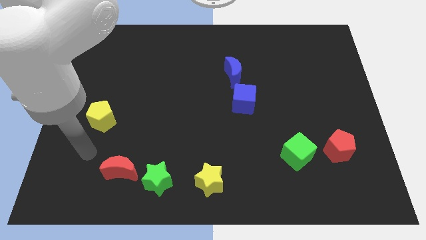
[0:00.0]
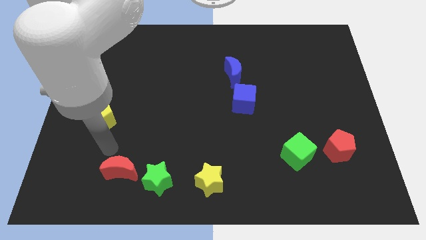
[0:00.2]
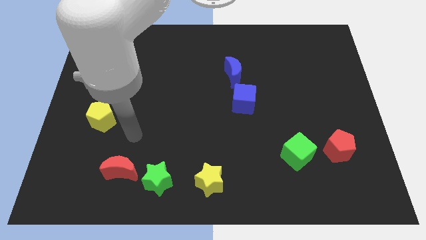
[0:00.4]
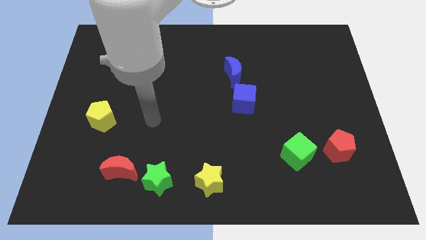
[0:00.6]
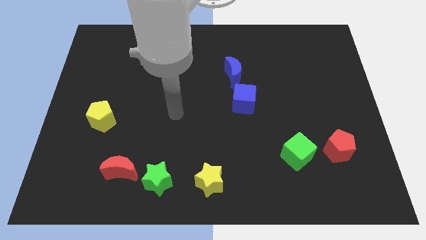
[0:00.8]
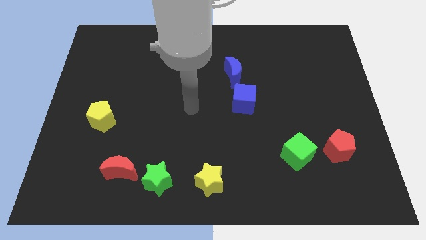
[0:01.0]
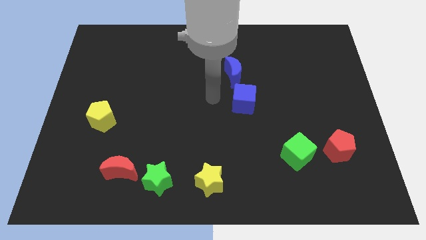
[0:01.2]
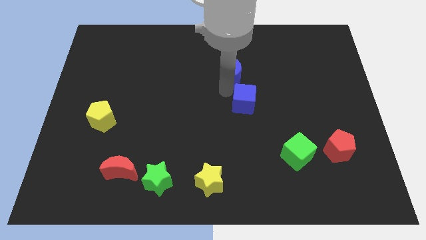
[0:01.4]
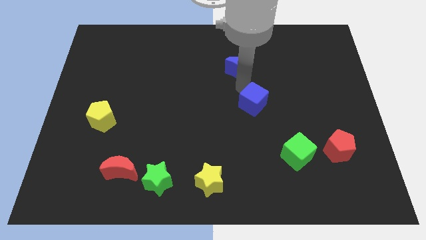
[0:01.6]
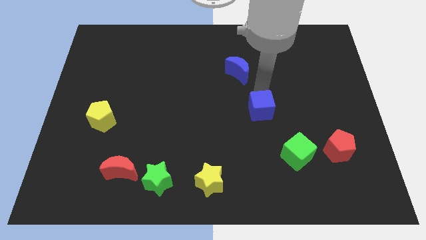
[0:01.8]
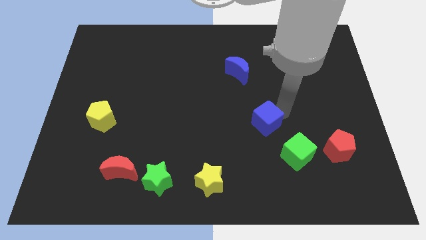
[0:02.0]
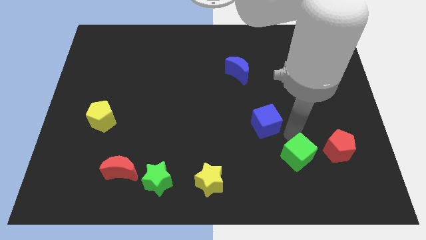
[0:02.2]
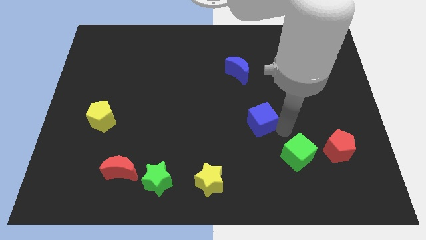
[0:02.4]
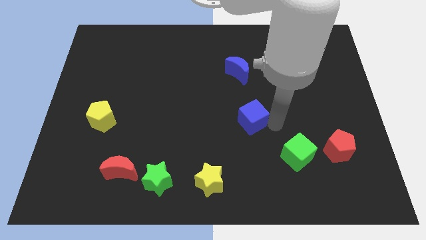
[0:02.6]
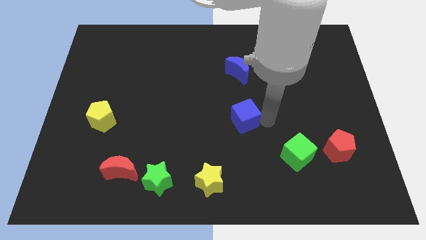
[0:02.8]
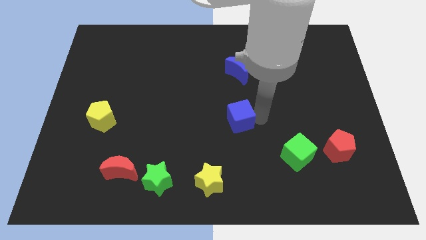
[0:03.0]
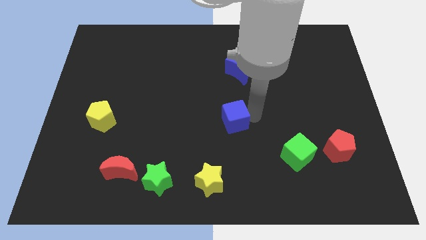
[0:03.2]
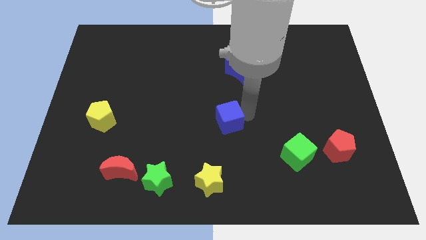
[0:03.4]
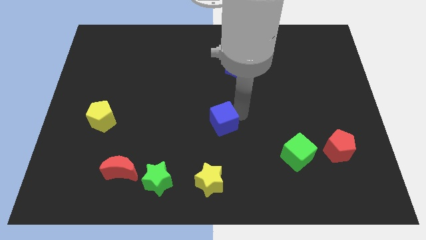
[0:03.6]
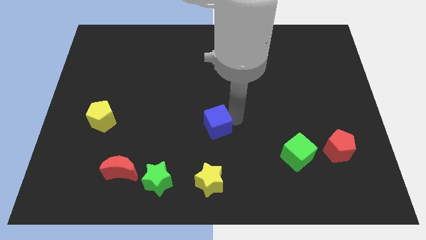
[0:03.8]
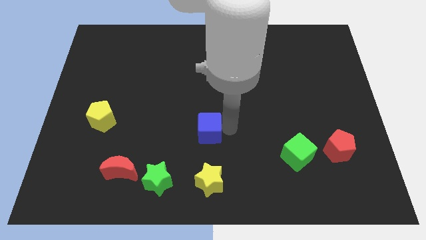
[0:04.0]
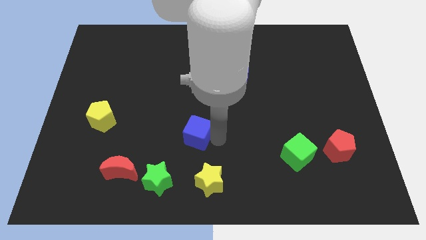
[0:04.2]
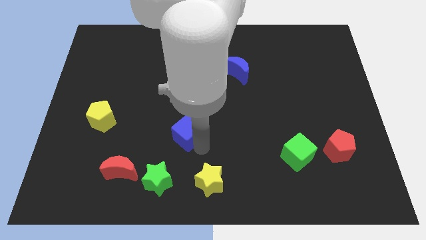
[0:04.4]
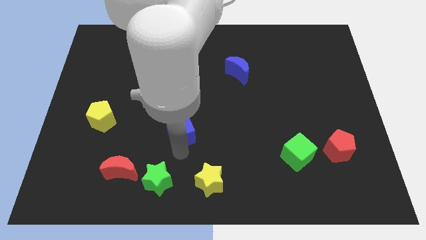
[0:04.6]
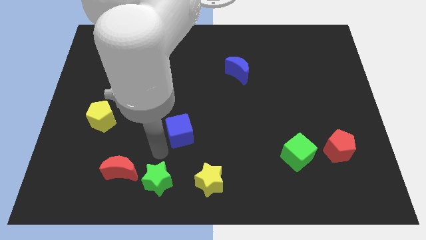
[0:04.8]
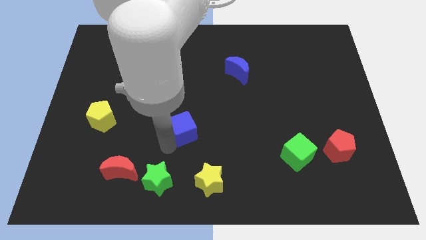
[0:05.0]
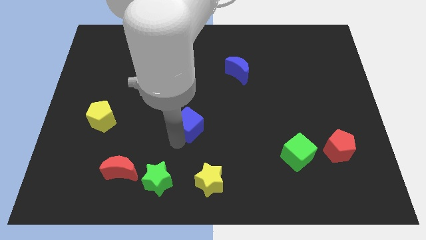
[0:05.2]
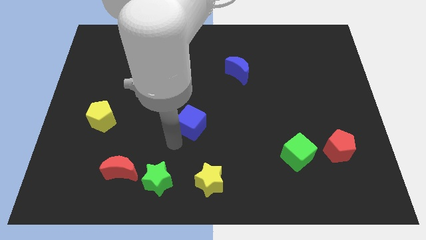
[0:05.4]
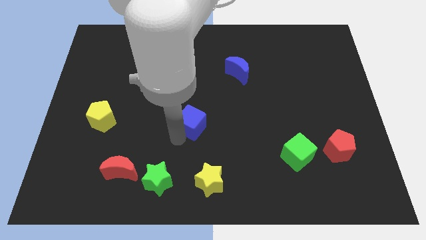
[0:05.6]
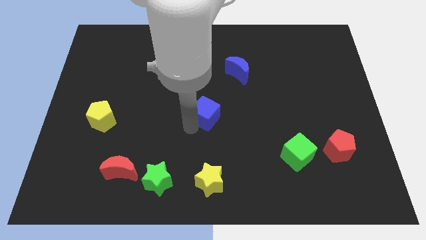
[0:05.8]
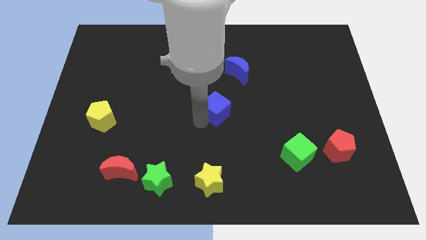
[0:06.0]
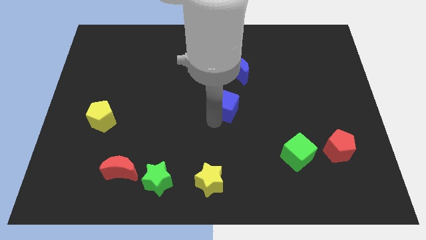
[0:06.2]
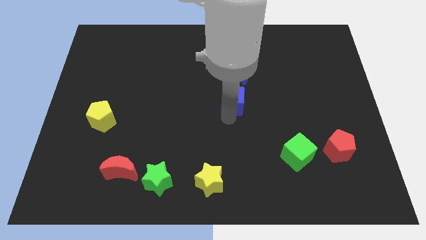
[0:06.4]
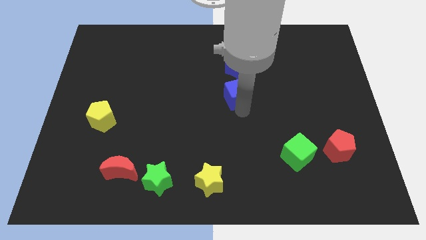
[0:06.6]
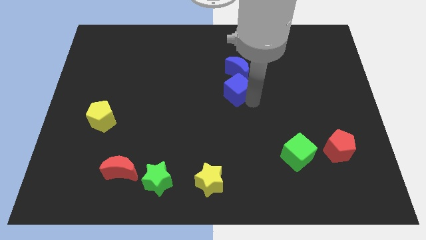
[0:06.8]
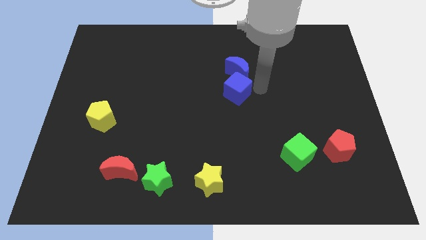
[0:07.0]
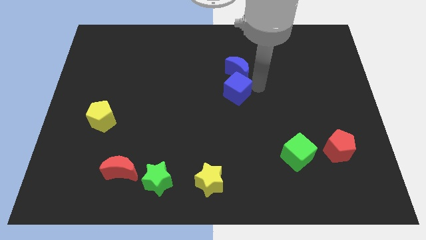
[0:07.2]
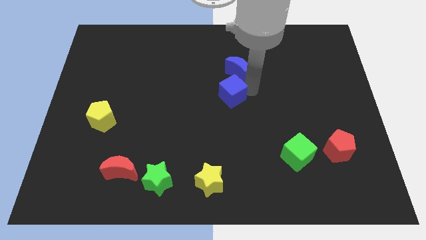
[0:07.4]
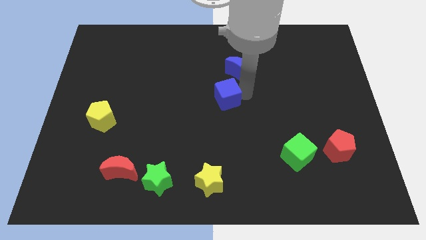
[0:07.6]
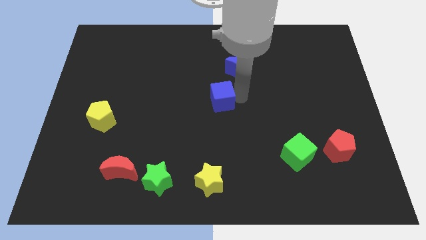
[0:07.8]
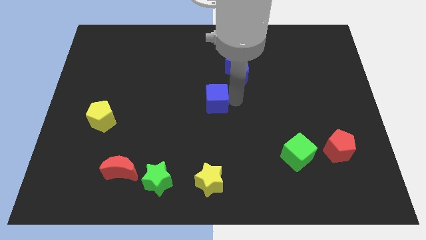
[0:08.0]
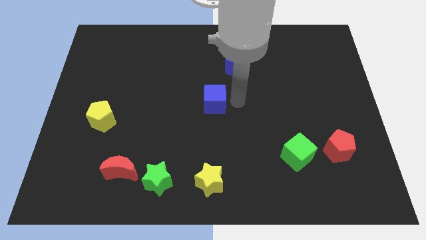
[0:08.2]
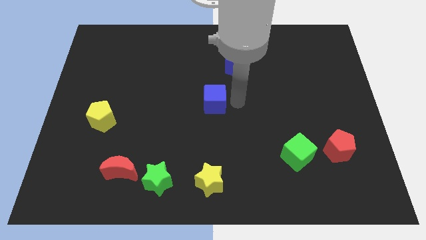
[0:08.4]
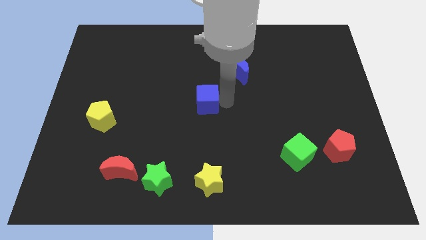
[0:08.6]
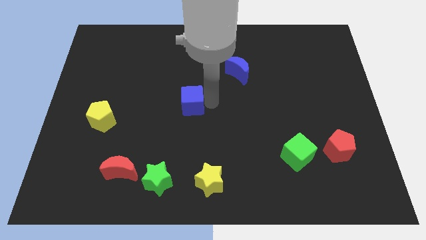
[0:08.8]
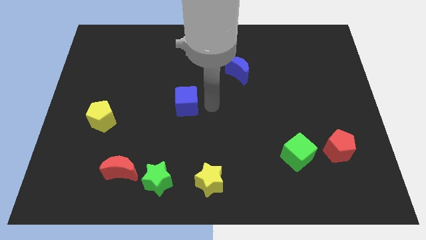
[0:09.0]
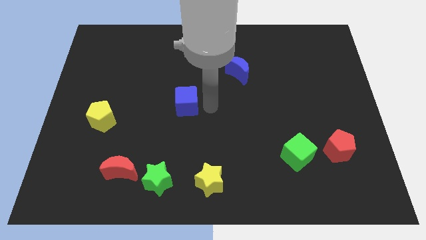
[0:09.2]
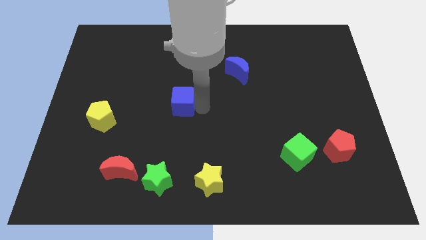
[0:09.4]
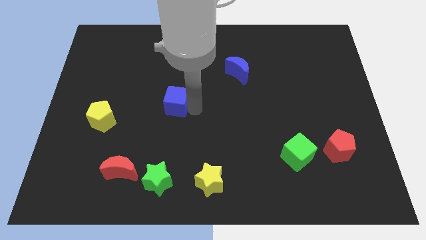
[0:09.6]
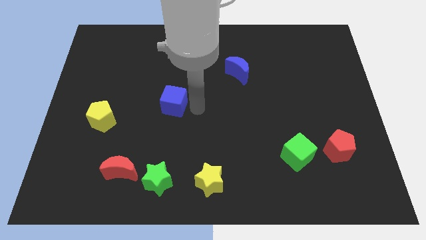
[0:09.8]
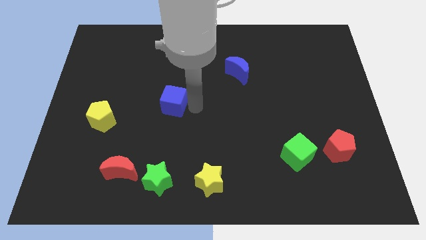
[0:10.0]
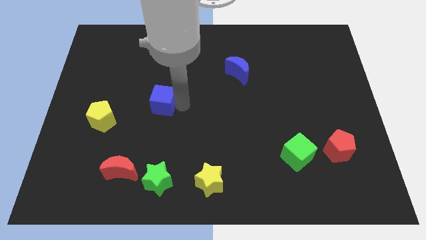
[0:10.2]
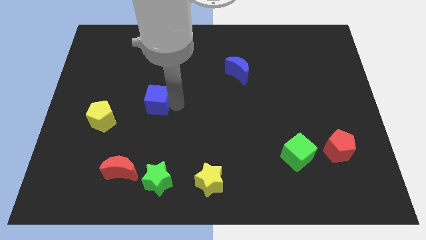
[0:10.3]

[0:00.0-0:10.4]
move the blue cube to the left

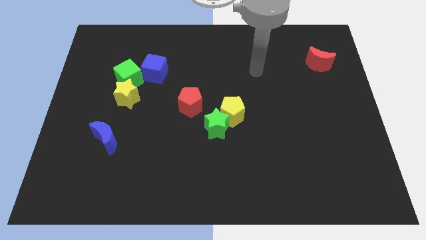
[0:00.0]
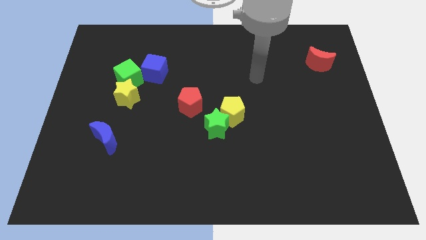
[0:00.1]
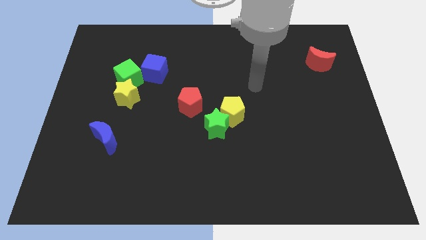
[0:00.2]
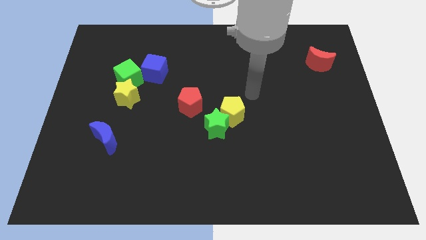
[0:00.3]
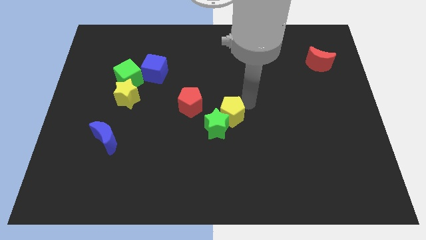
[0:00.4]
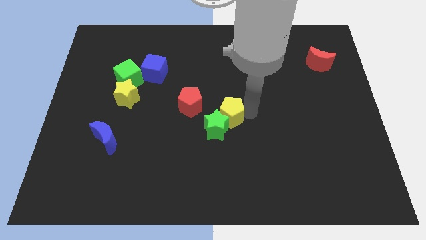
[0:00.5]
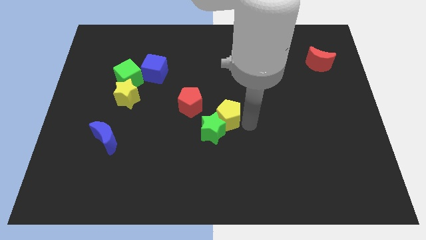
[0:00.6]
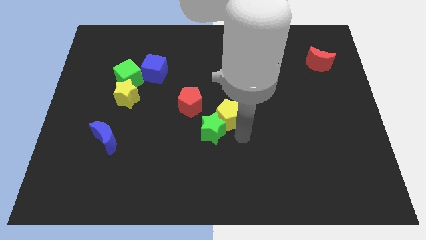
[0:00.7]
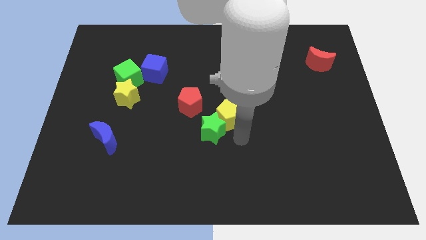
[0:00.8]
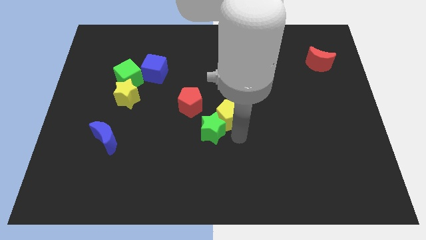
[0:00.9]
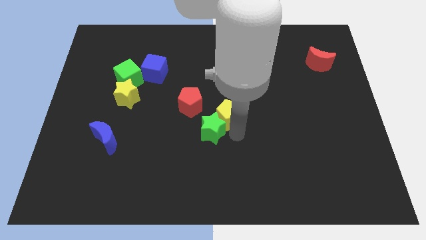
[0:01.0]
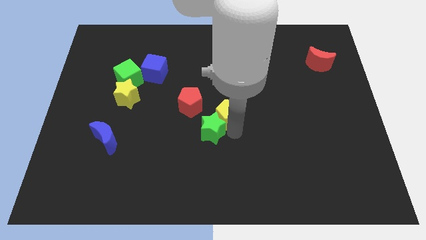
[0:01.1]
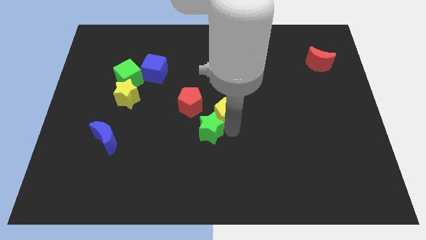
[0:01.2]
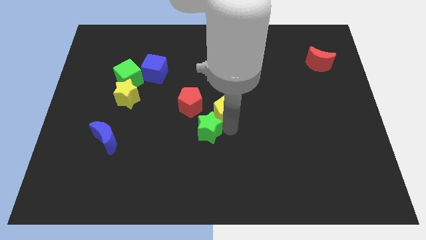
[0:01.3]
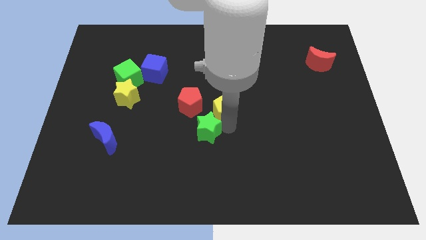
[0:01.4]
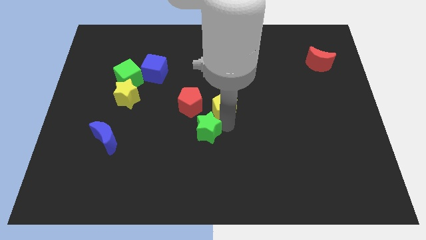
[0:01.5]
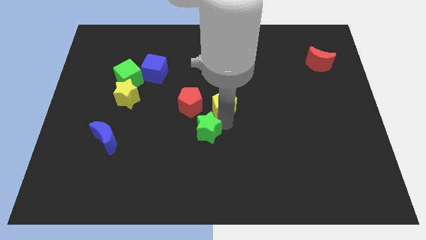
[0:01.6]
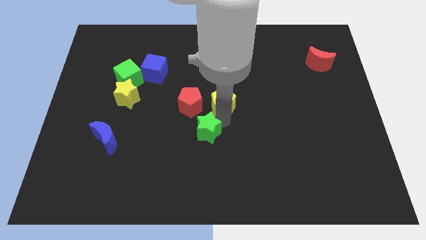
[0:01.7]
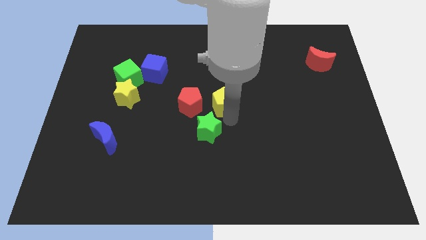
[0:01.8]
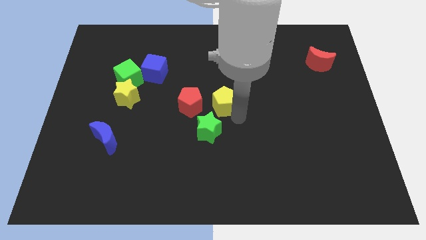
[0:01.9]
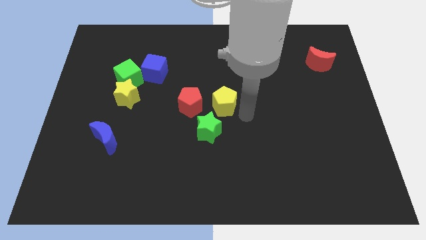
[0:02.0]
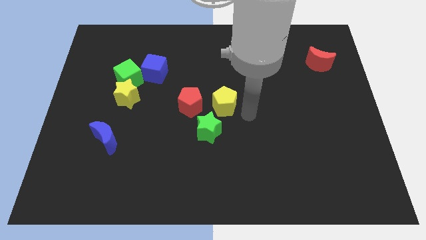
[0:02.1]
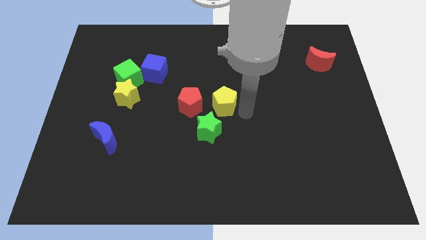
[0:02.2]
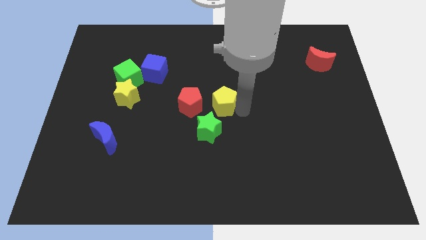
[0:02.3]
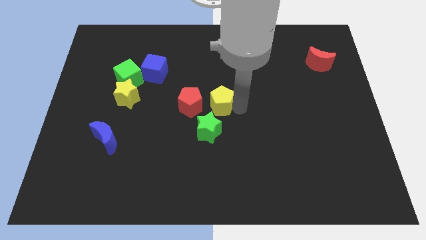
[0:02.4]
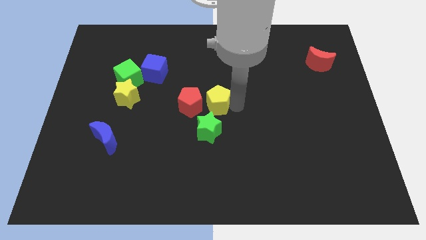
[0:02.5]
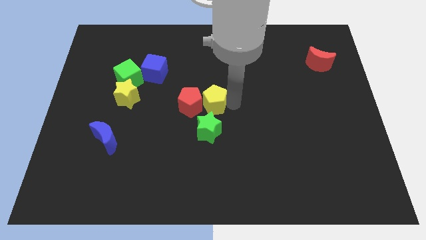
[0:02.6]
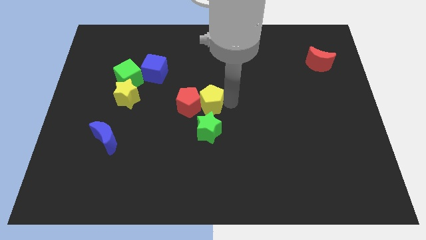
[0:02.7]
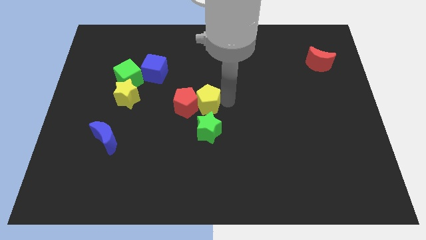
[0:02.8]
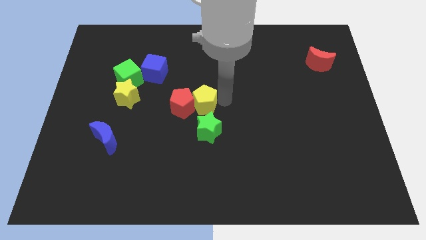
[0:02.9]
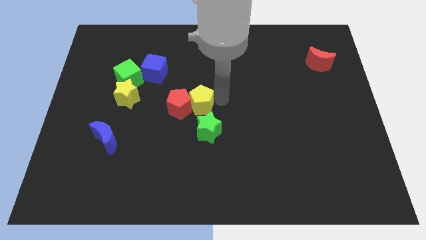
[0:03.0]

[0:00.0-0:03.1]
move the yellow pentagon a little to the left

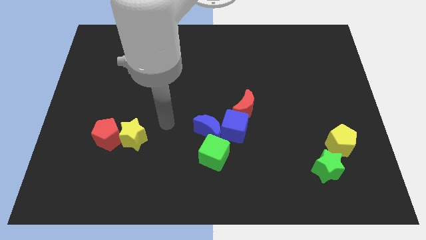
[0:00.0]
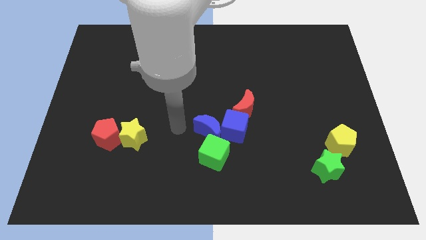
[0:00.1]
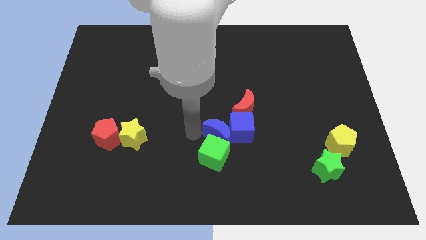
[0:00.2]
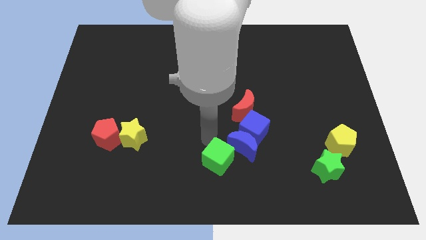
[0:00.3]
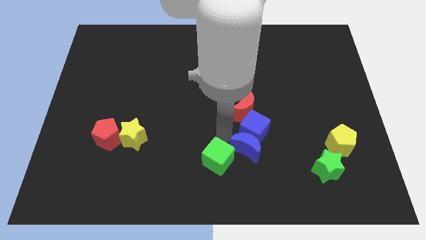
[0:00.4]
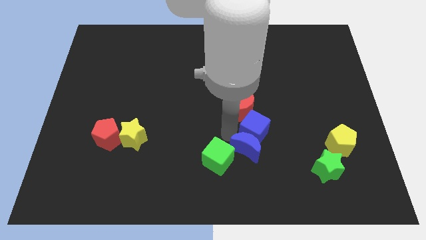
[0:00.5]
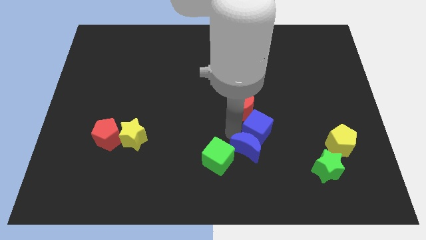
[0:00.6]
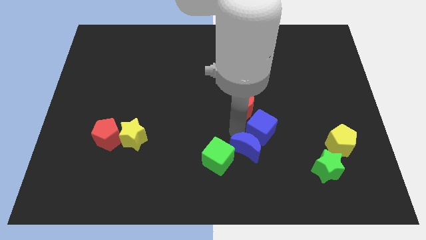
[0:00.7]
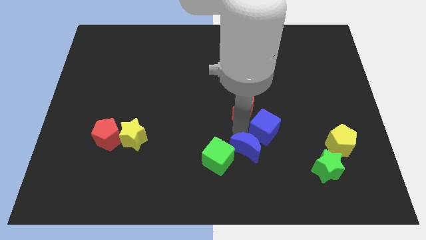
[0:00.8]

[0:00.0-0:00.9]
slide the blue cube a little bit to the right
